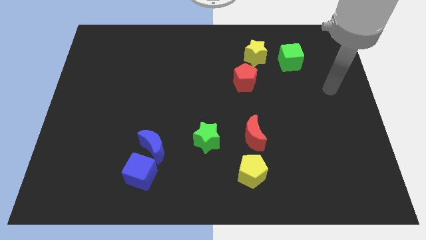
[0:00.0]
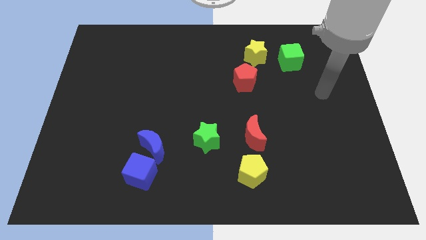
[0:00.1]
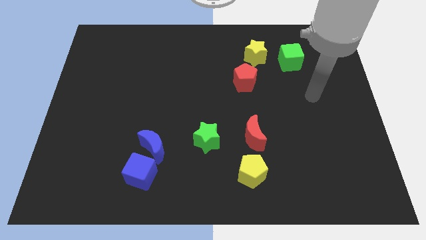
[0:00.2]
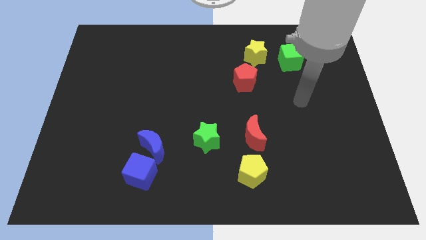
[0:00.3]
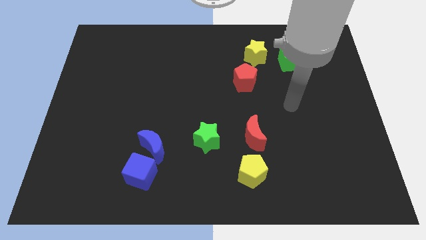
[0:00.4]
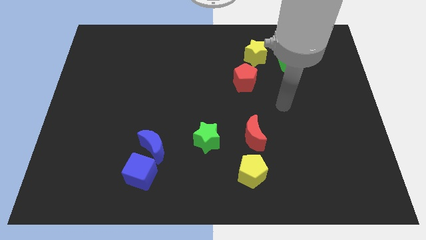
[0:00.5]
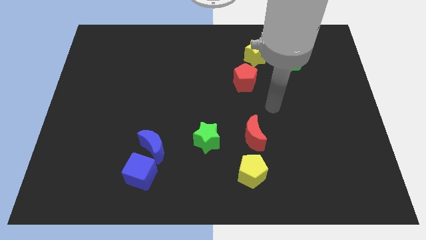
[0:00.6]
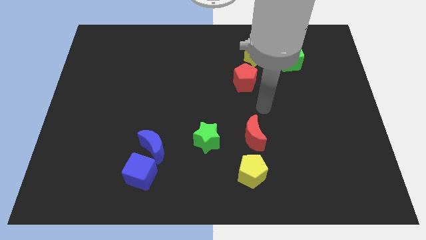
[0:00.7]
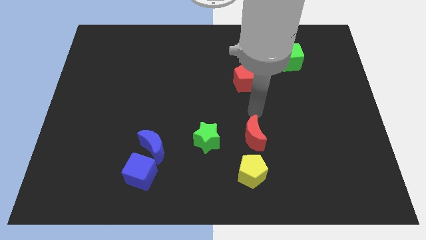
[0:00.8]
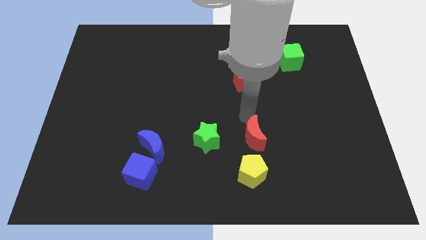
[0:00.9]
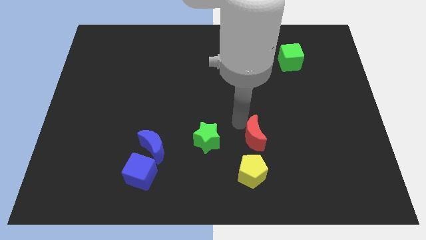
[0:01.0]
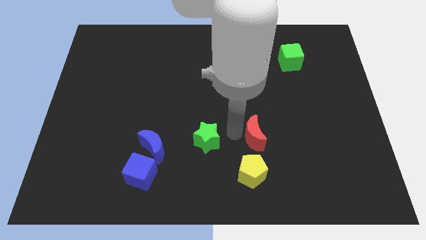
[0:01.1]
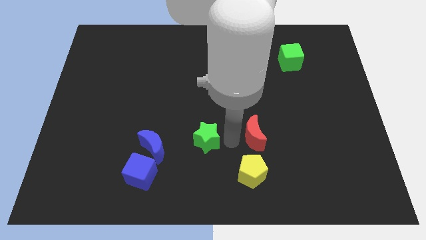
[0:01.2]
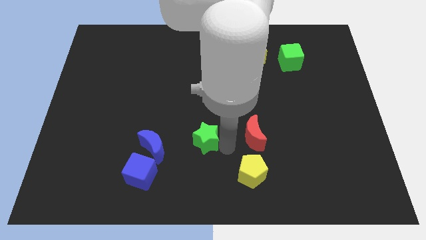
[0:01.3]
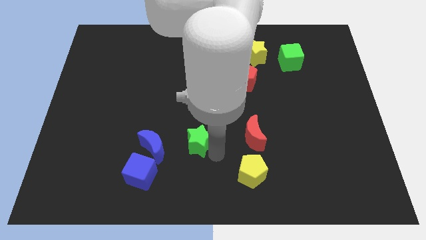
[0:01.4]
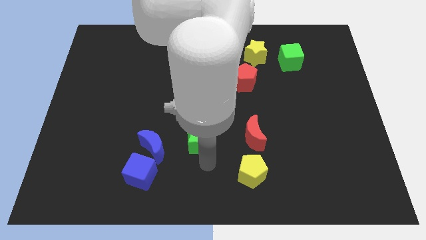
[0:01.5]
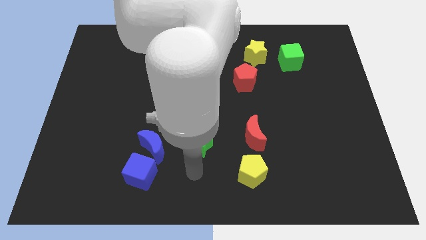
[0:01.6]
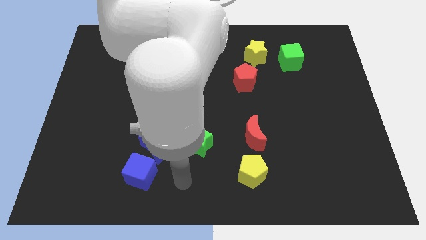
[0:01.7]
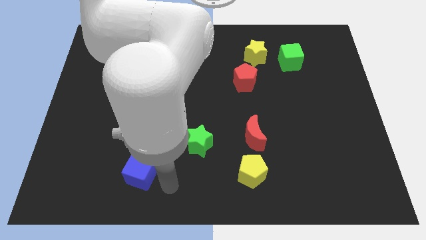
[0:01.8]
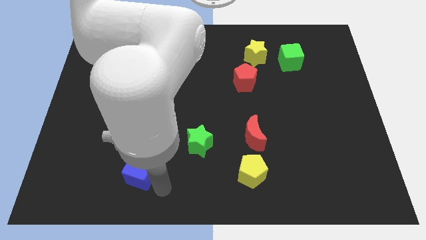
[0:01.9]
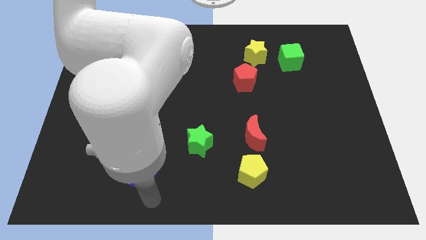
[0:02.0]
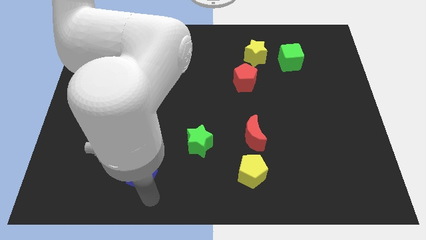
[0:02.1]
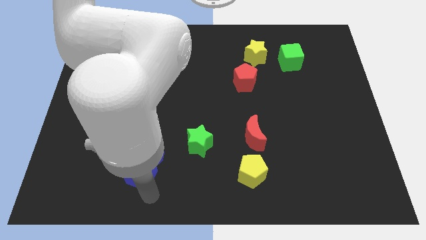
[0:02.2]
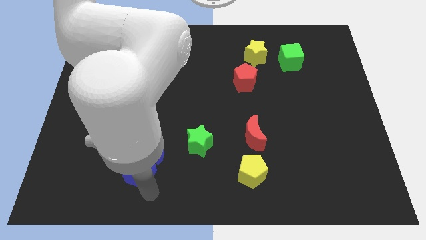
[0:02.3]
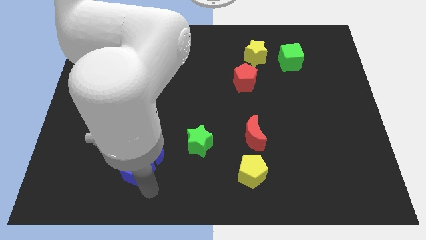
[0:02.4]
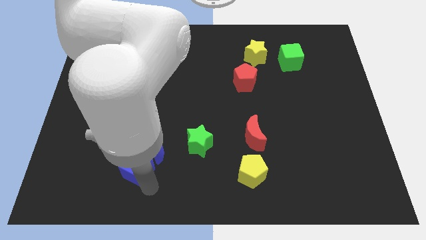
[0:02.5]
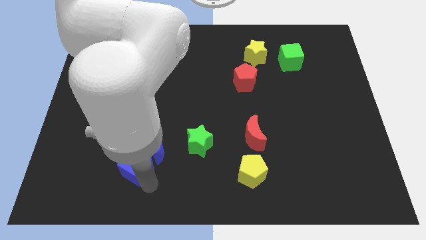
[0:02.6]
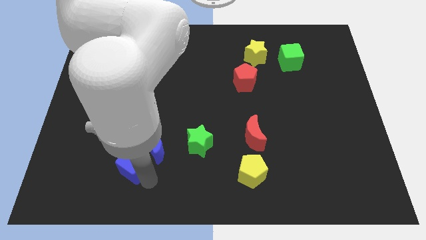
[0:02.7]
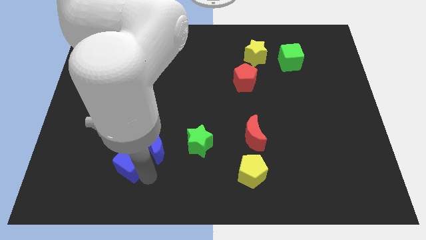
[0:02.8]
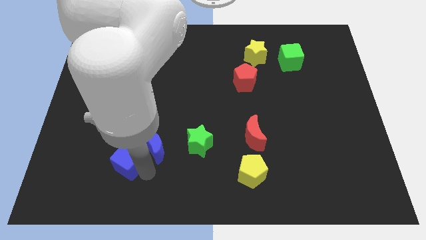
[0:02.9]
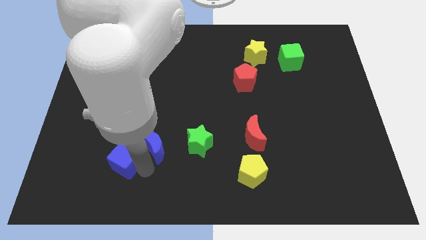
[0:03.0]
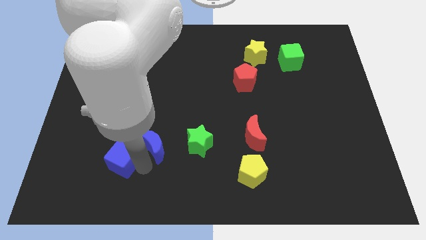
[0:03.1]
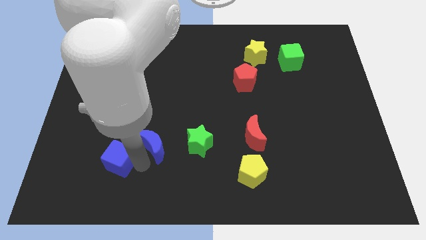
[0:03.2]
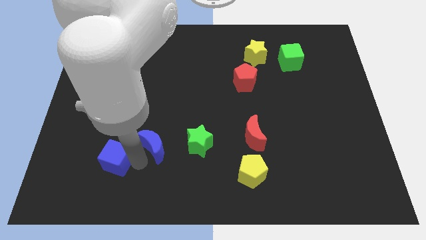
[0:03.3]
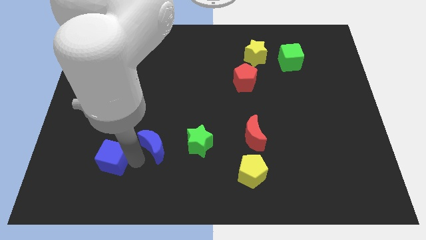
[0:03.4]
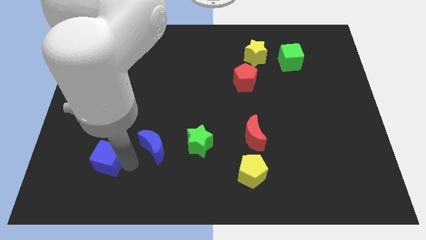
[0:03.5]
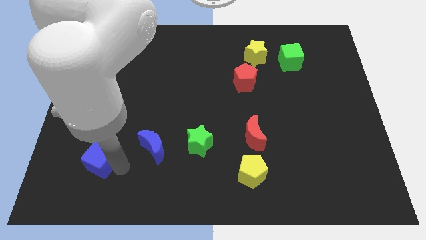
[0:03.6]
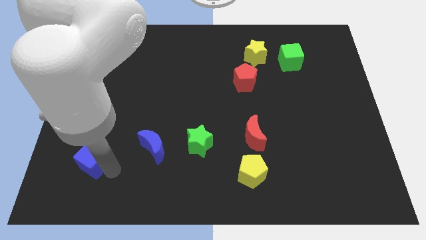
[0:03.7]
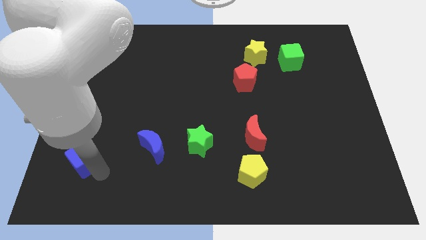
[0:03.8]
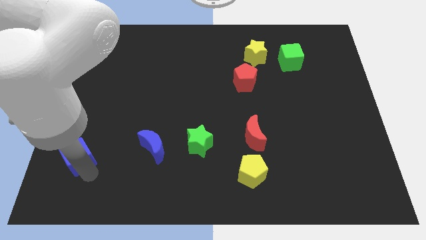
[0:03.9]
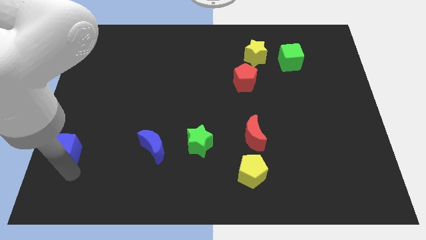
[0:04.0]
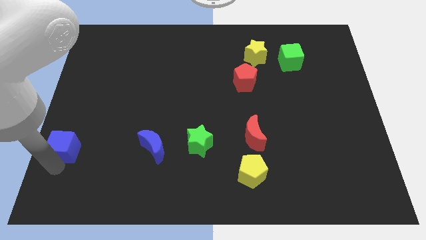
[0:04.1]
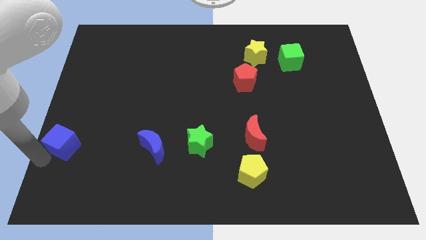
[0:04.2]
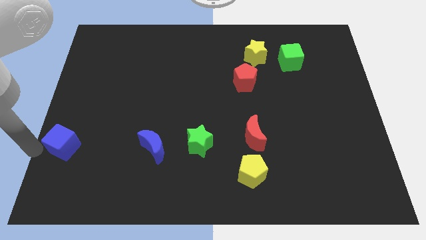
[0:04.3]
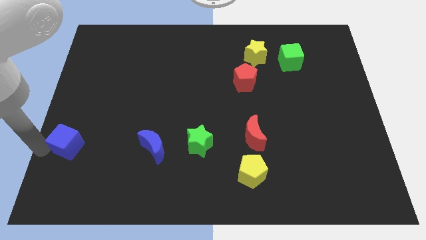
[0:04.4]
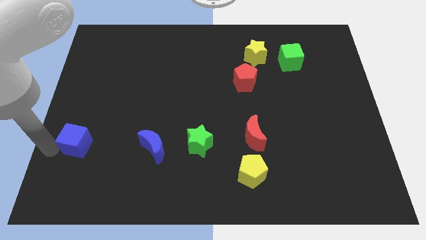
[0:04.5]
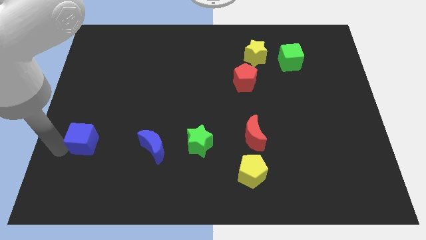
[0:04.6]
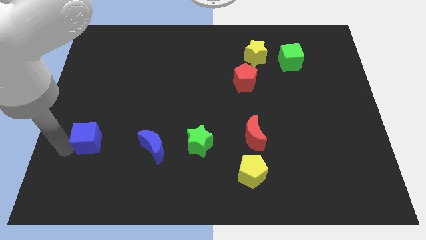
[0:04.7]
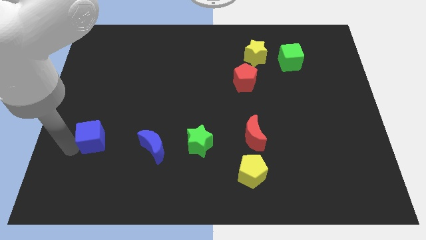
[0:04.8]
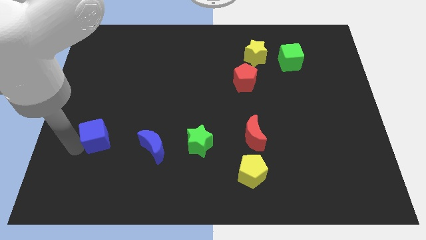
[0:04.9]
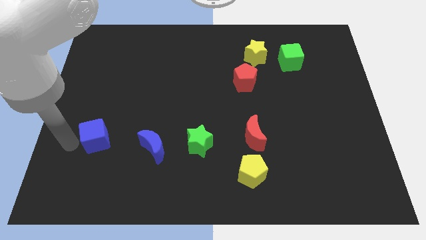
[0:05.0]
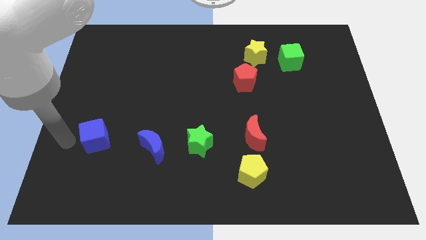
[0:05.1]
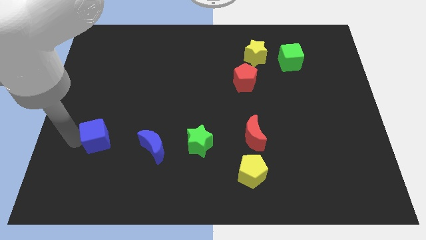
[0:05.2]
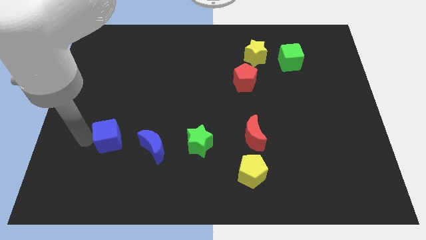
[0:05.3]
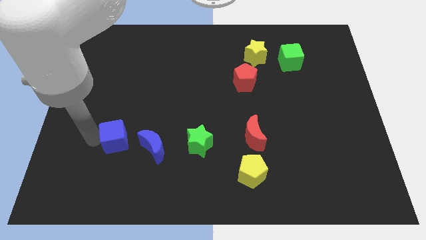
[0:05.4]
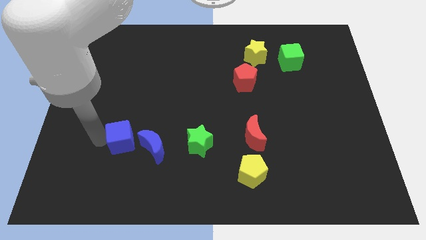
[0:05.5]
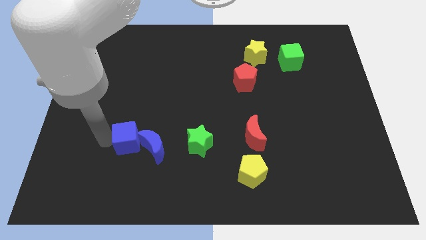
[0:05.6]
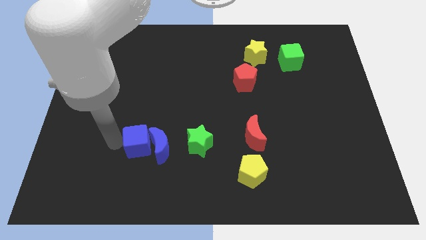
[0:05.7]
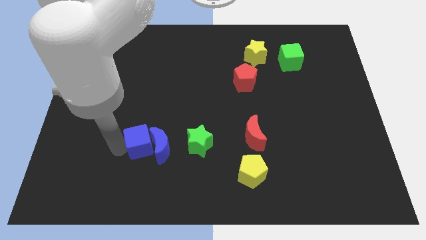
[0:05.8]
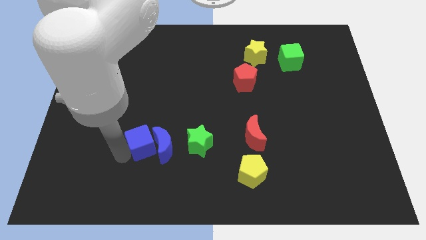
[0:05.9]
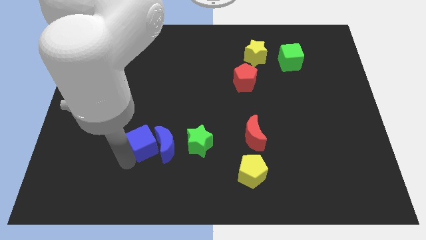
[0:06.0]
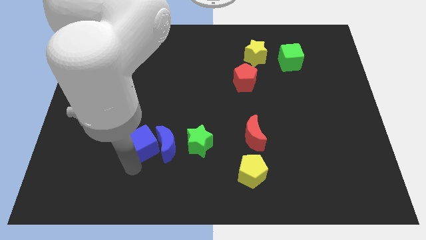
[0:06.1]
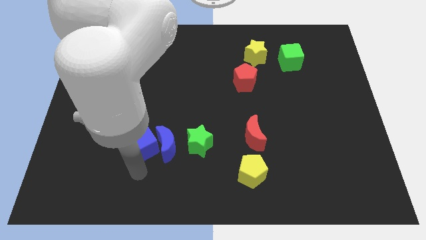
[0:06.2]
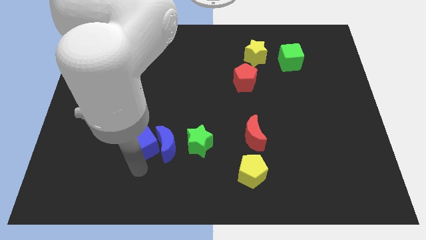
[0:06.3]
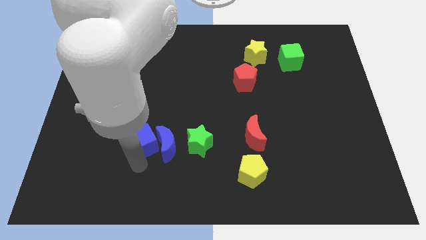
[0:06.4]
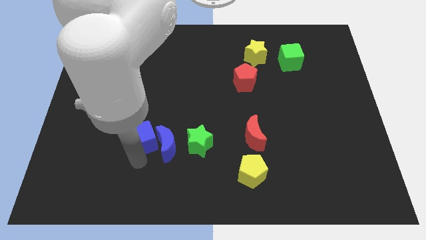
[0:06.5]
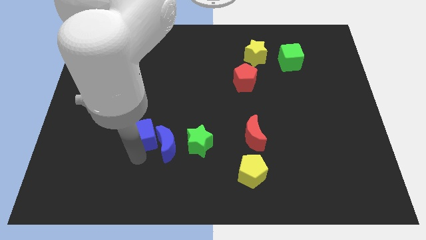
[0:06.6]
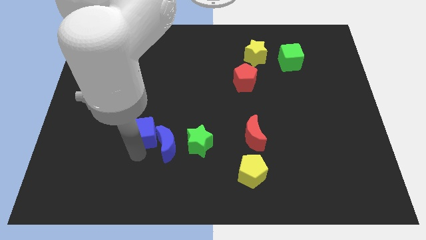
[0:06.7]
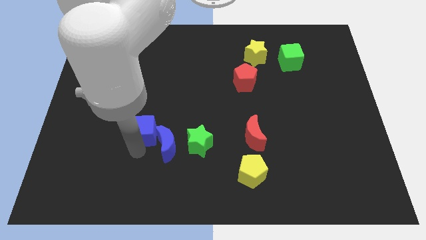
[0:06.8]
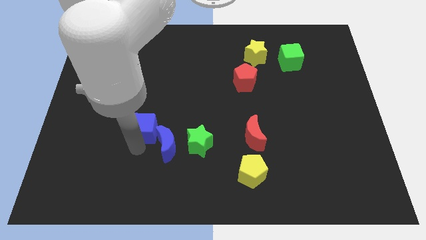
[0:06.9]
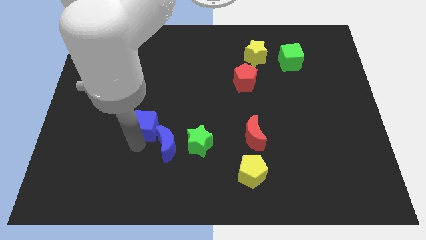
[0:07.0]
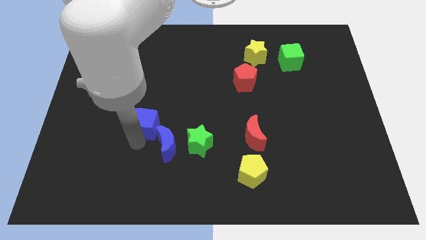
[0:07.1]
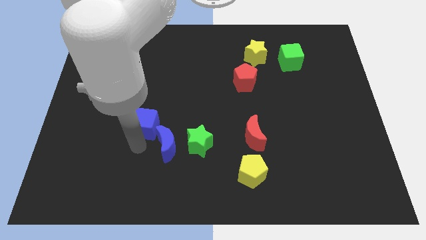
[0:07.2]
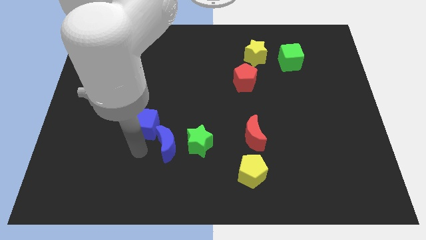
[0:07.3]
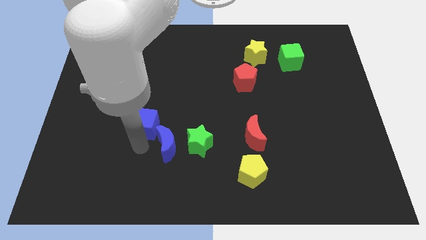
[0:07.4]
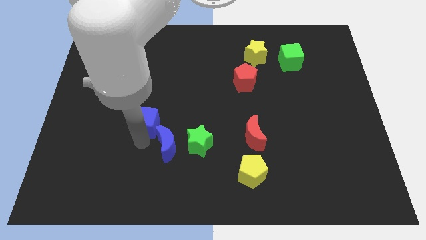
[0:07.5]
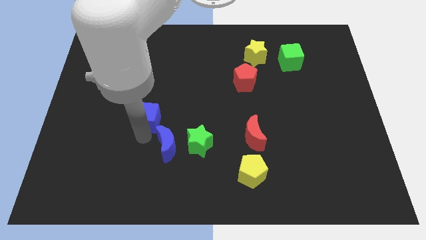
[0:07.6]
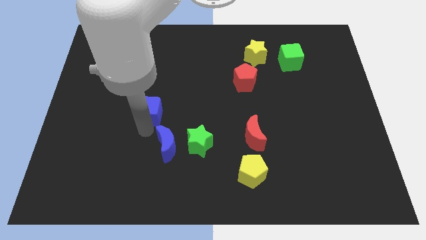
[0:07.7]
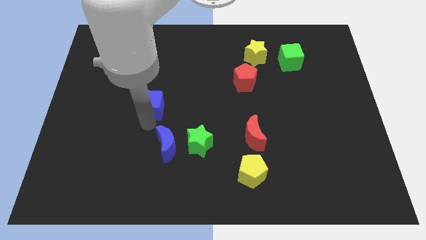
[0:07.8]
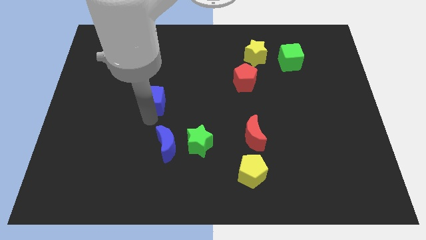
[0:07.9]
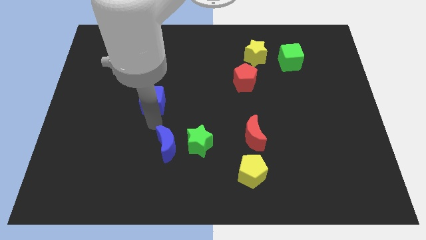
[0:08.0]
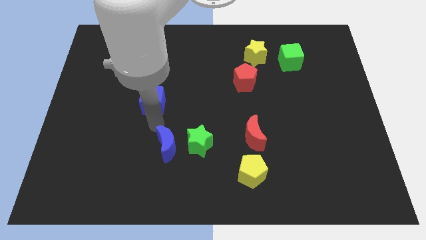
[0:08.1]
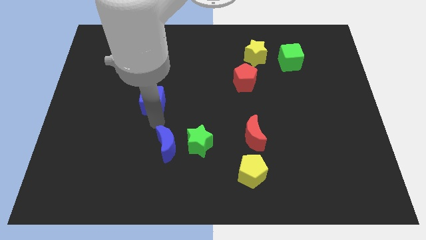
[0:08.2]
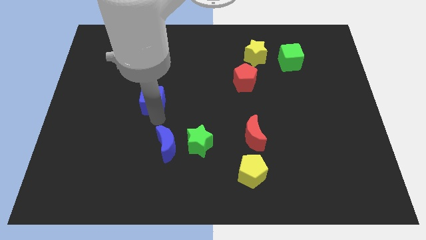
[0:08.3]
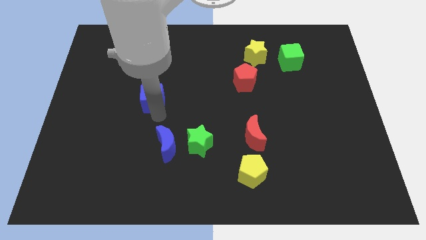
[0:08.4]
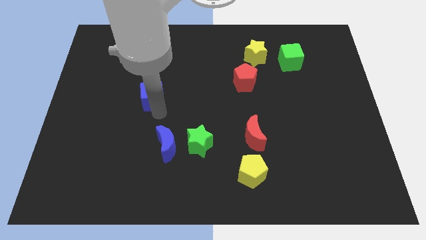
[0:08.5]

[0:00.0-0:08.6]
push the blue cube up
